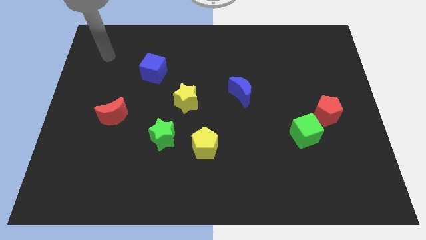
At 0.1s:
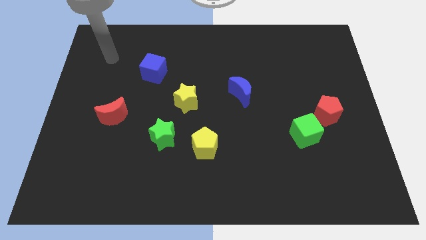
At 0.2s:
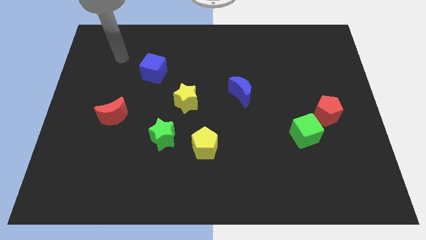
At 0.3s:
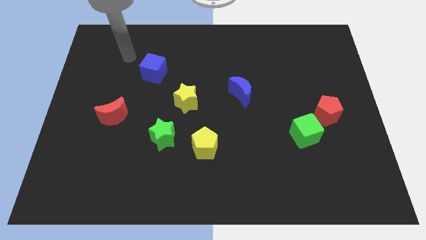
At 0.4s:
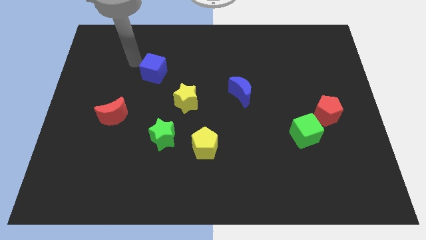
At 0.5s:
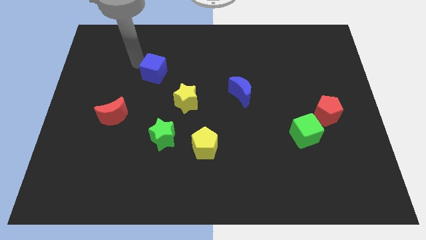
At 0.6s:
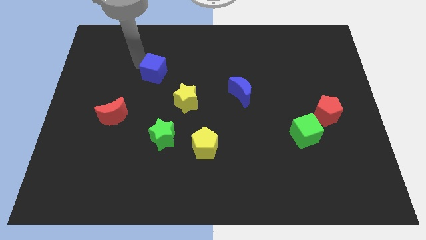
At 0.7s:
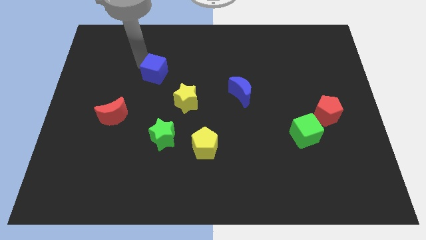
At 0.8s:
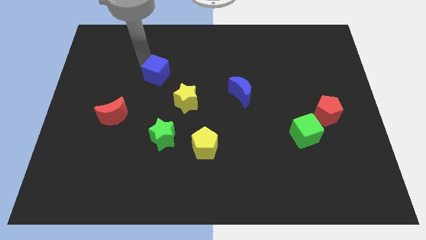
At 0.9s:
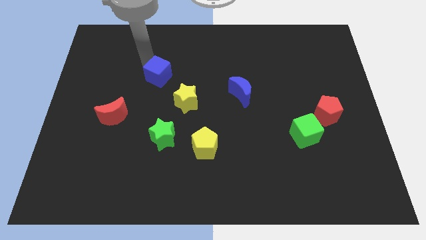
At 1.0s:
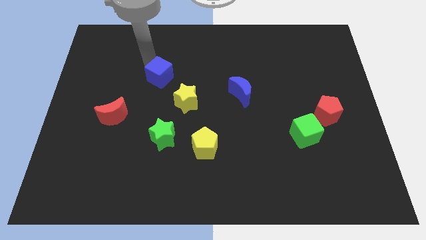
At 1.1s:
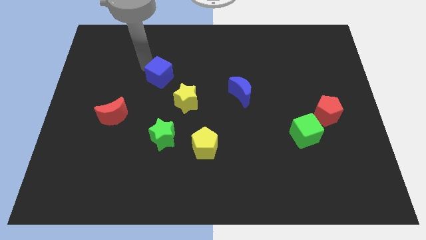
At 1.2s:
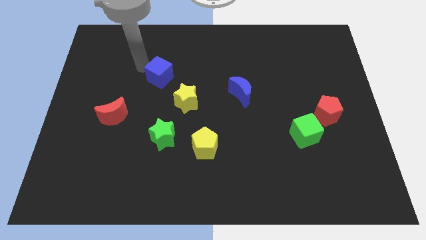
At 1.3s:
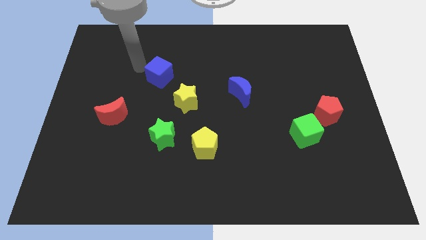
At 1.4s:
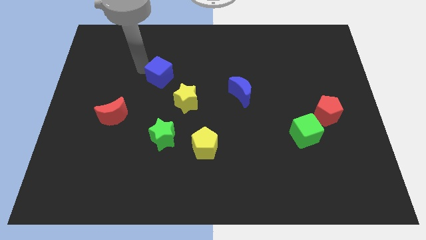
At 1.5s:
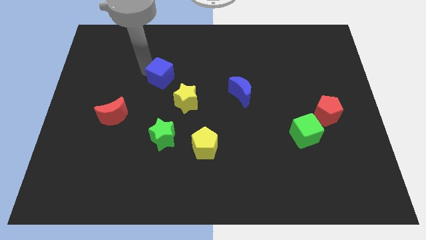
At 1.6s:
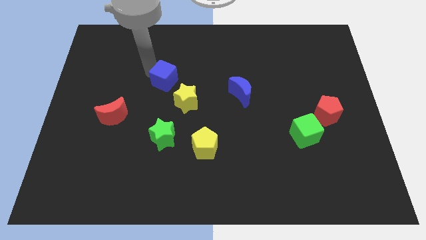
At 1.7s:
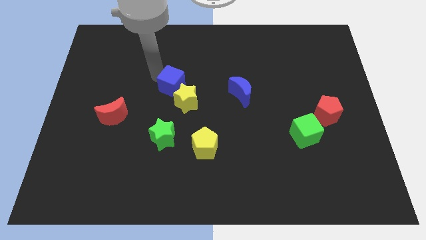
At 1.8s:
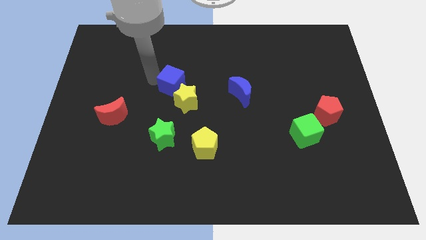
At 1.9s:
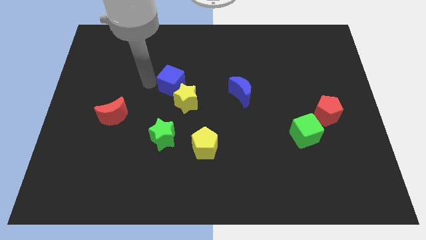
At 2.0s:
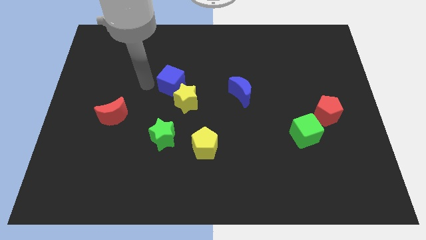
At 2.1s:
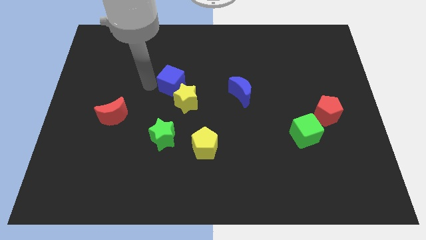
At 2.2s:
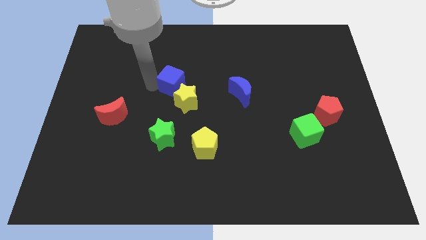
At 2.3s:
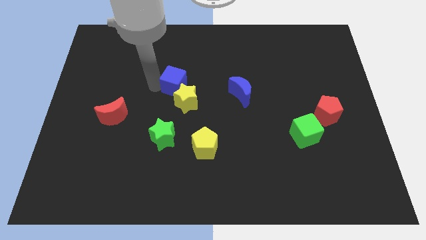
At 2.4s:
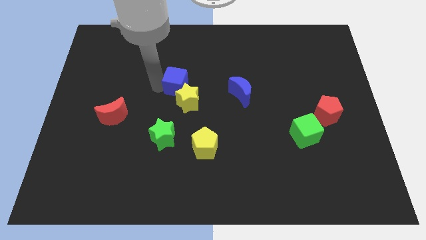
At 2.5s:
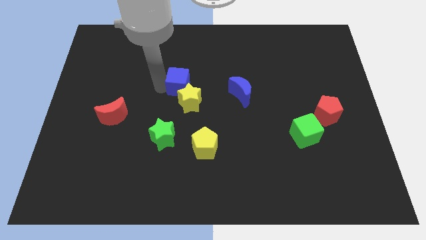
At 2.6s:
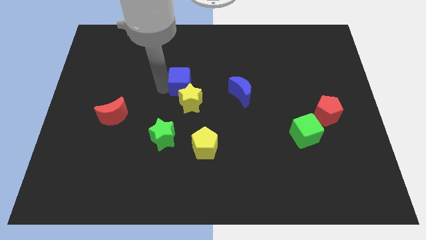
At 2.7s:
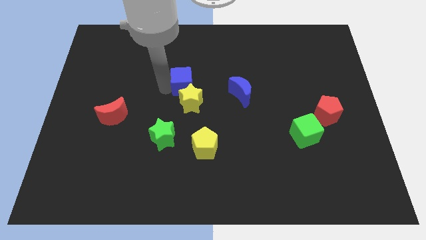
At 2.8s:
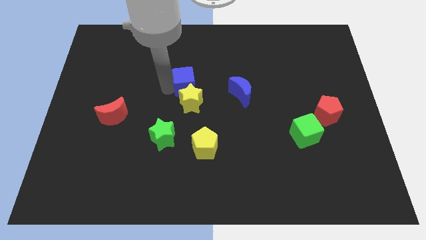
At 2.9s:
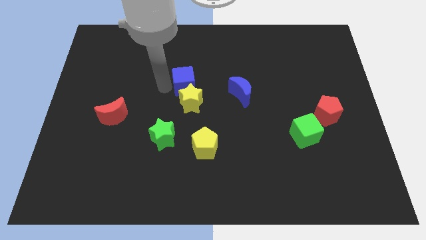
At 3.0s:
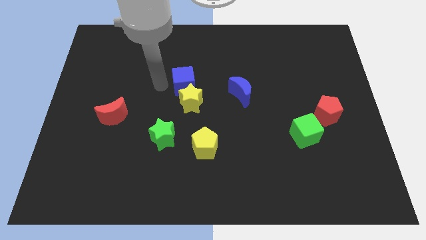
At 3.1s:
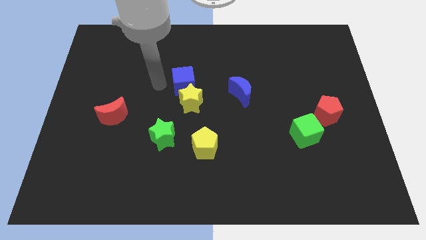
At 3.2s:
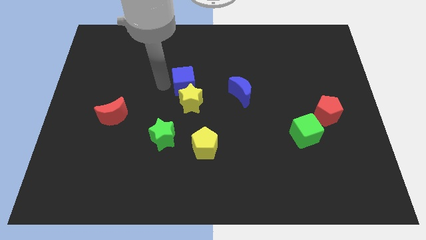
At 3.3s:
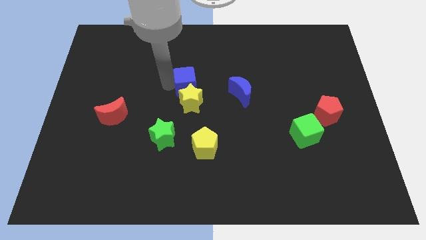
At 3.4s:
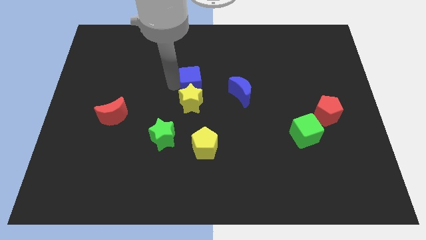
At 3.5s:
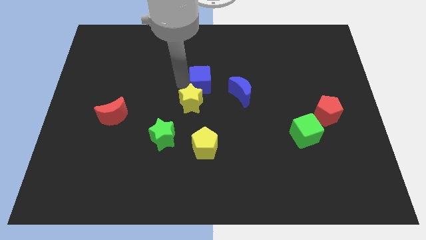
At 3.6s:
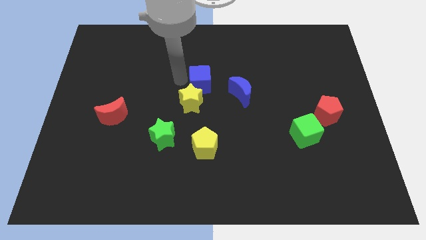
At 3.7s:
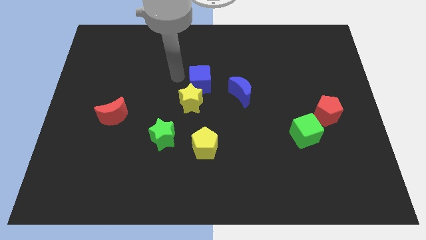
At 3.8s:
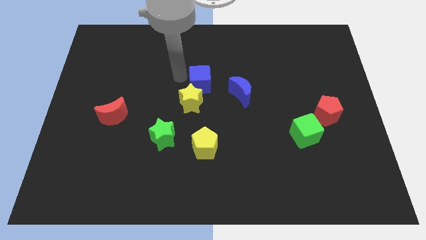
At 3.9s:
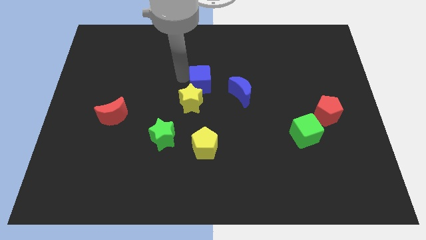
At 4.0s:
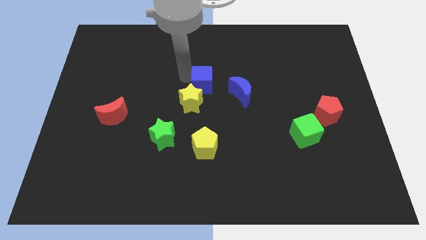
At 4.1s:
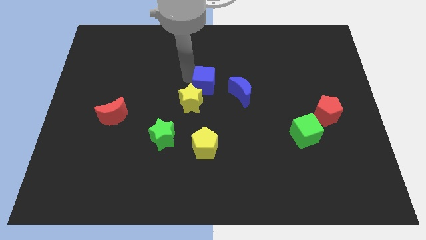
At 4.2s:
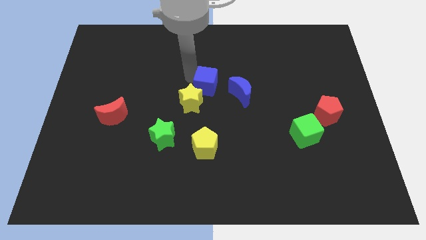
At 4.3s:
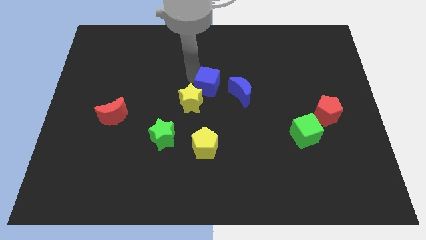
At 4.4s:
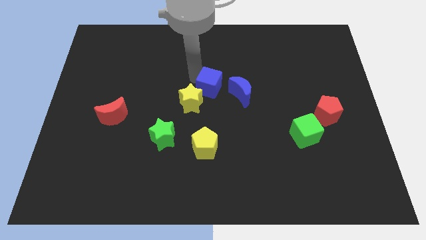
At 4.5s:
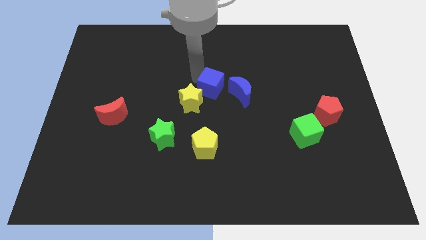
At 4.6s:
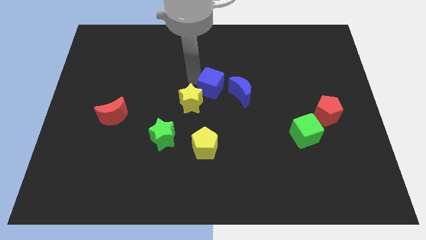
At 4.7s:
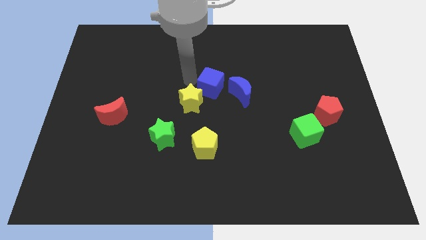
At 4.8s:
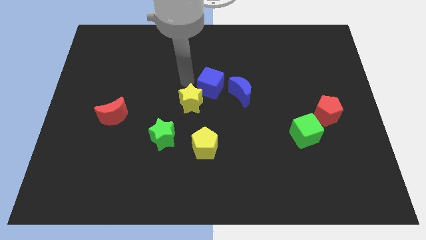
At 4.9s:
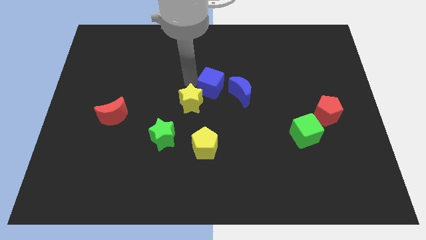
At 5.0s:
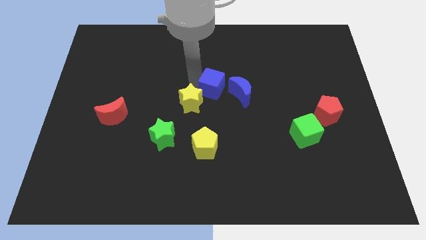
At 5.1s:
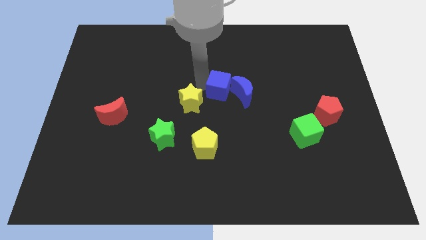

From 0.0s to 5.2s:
push the blue cube close to the blue moon

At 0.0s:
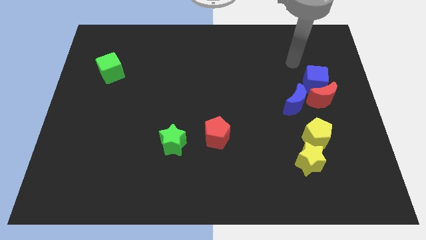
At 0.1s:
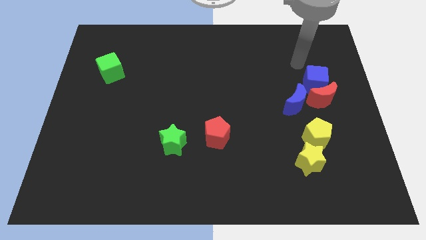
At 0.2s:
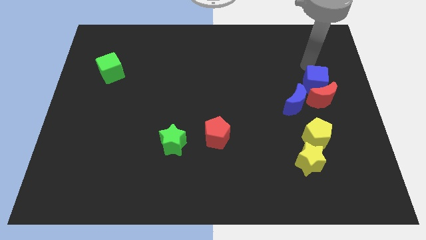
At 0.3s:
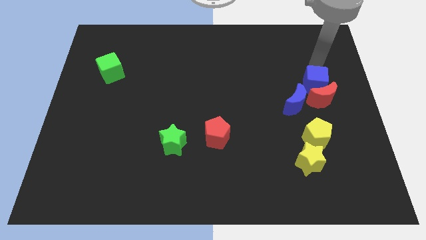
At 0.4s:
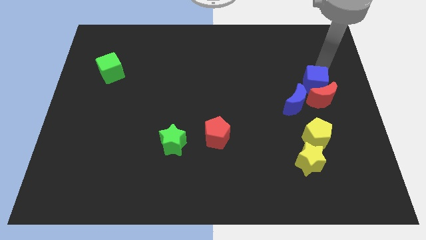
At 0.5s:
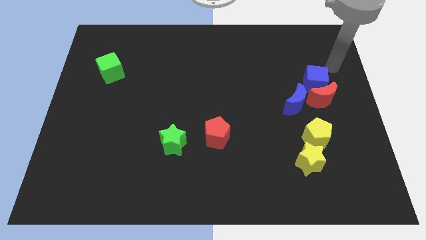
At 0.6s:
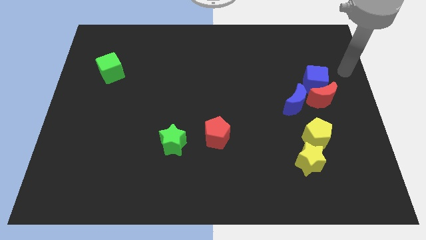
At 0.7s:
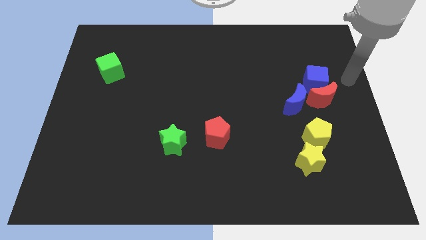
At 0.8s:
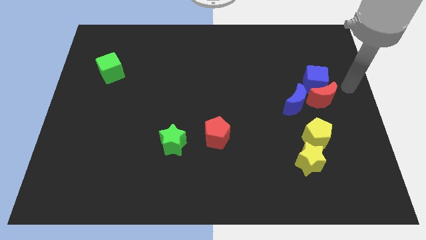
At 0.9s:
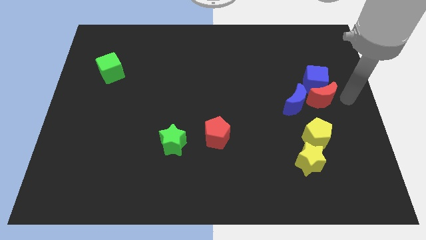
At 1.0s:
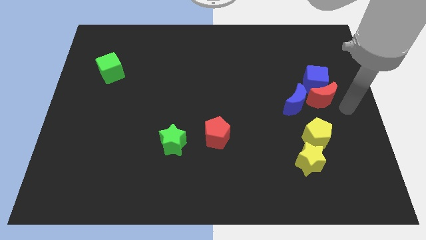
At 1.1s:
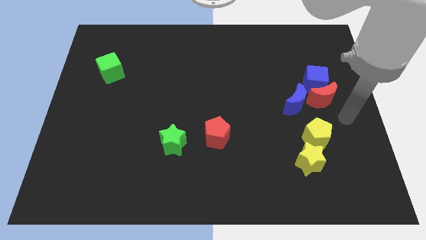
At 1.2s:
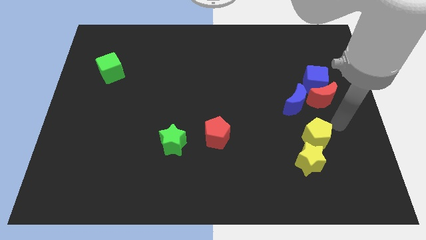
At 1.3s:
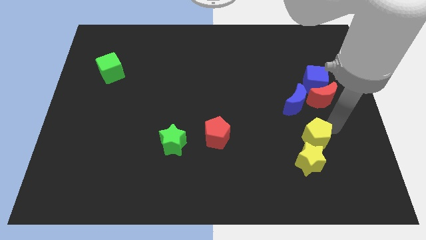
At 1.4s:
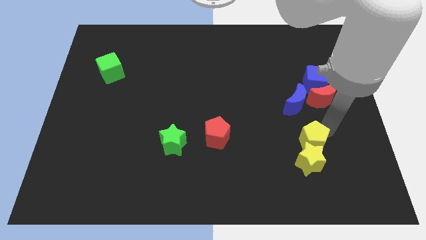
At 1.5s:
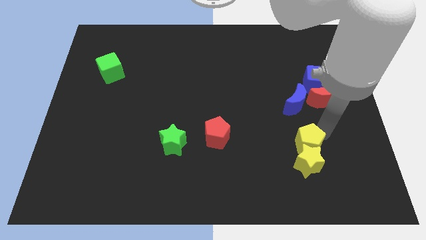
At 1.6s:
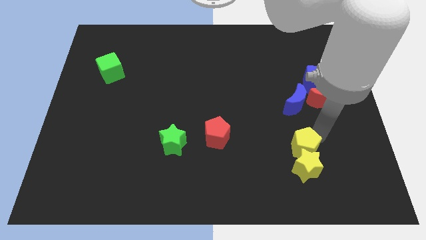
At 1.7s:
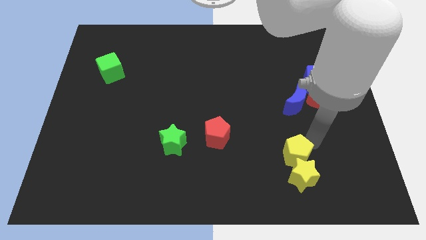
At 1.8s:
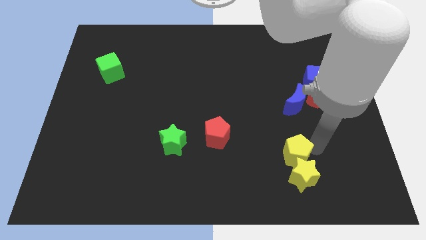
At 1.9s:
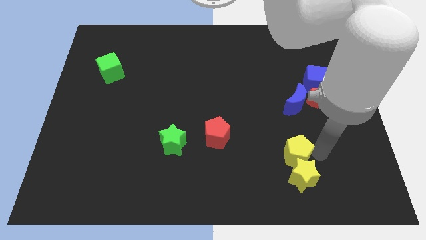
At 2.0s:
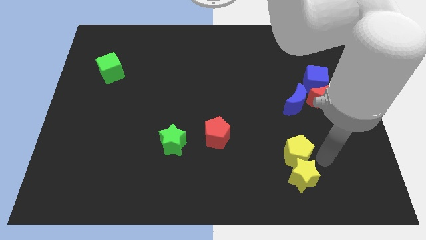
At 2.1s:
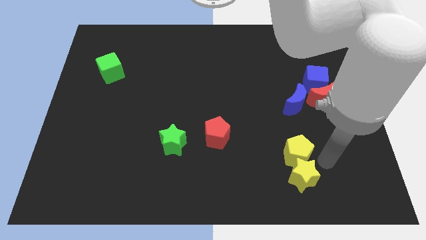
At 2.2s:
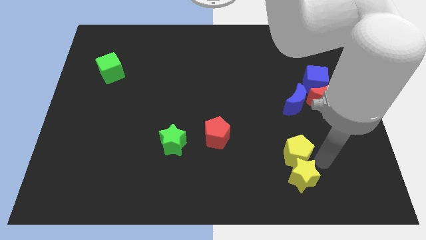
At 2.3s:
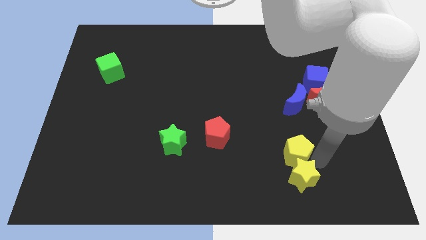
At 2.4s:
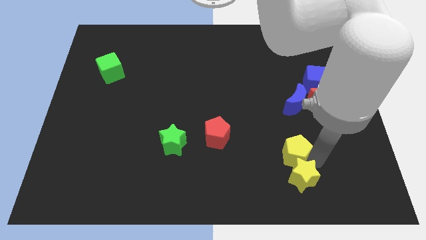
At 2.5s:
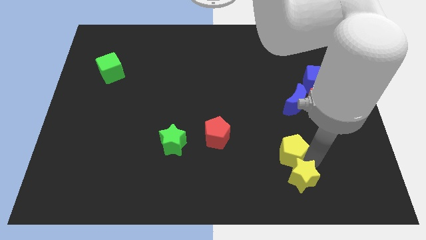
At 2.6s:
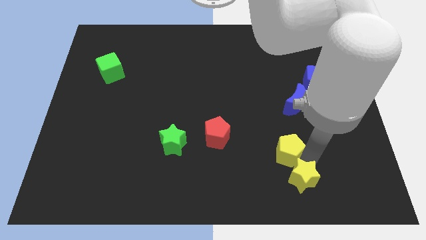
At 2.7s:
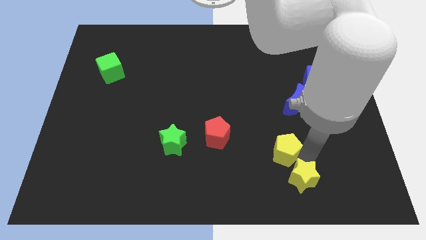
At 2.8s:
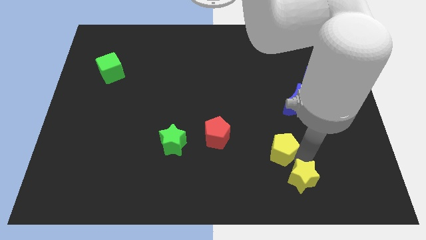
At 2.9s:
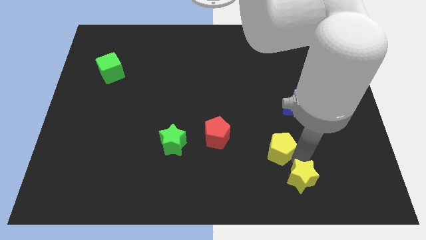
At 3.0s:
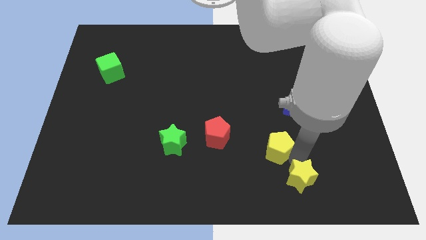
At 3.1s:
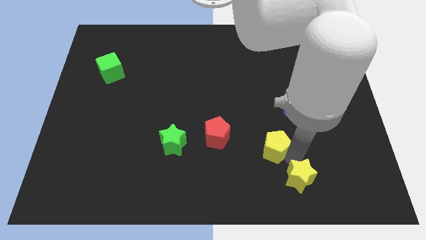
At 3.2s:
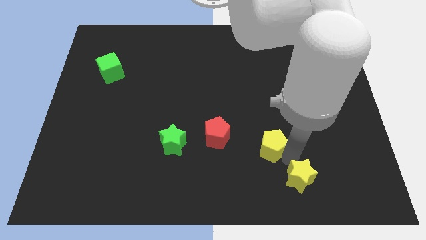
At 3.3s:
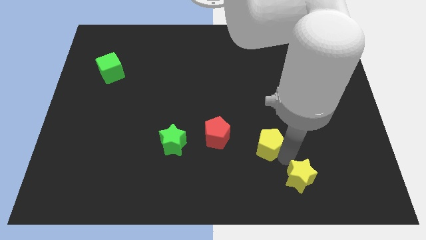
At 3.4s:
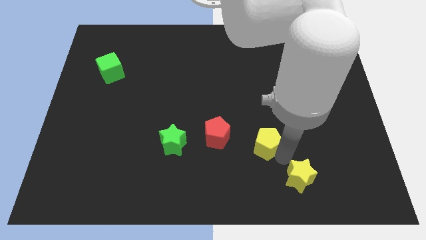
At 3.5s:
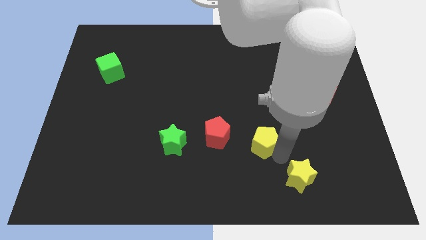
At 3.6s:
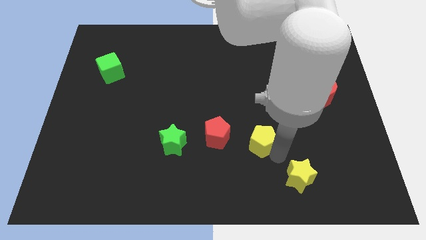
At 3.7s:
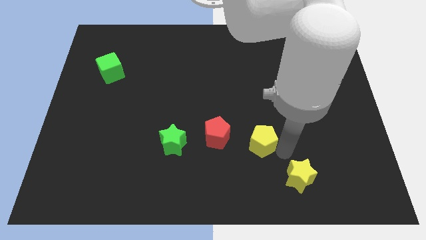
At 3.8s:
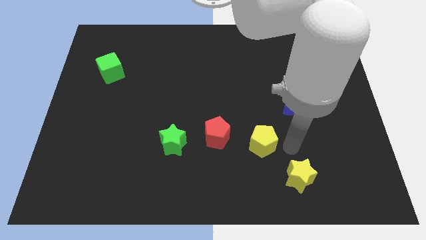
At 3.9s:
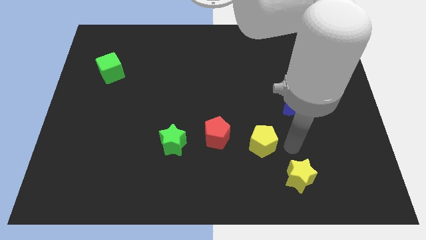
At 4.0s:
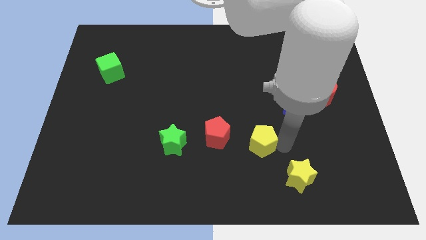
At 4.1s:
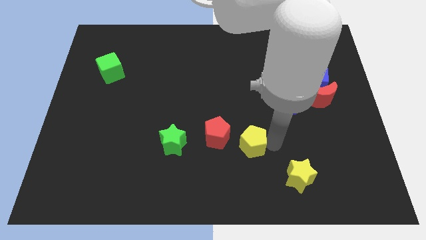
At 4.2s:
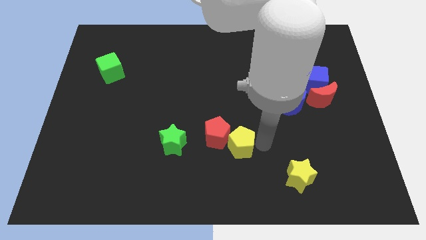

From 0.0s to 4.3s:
move the yellow pentagon next to the red pentagon
